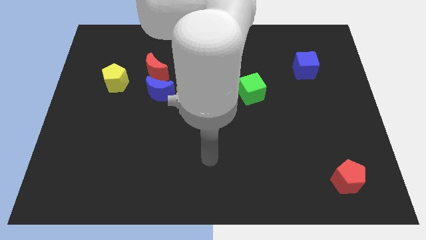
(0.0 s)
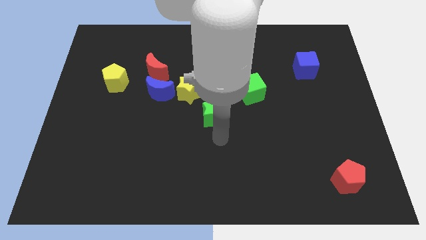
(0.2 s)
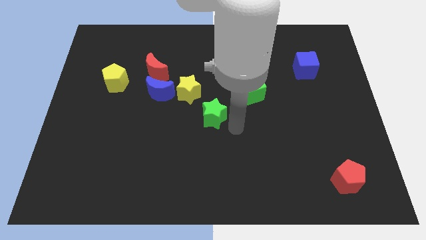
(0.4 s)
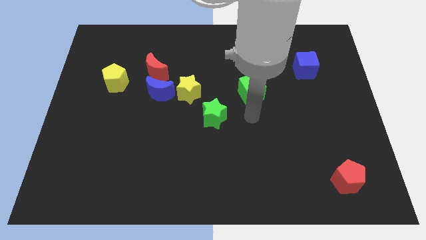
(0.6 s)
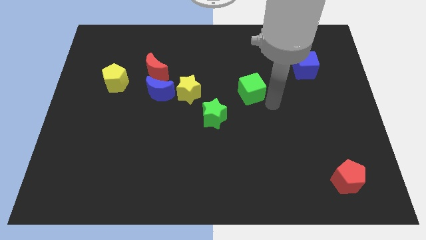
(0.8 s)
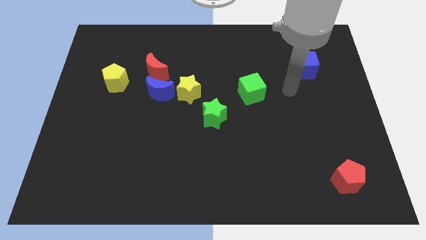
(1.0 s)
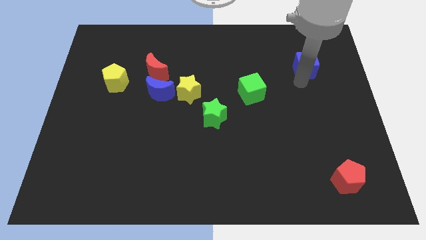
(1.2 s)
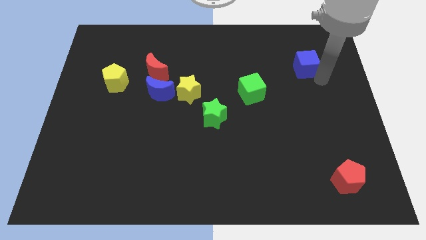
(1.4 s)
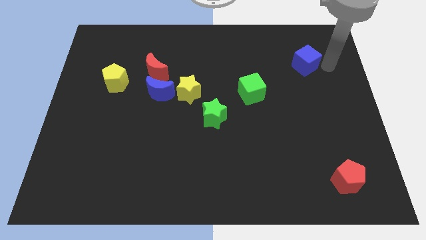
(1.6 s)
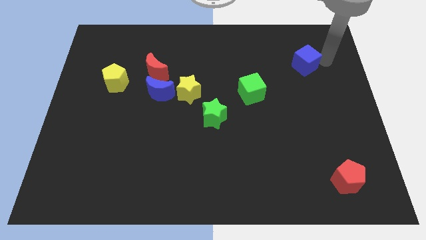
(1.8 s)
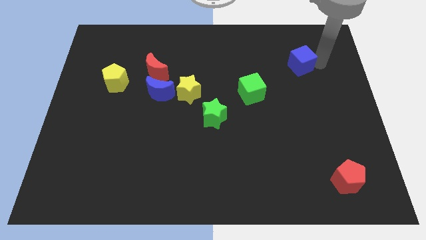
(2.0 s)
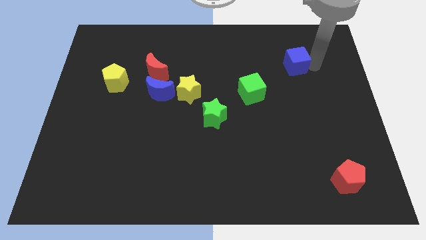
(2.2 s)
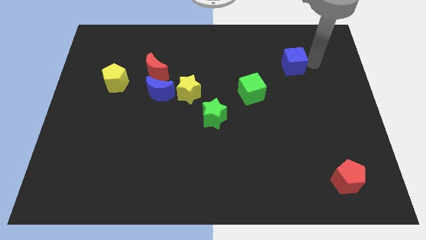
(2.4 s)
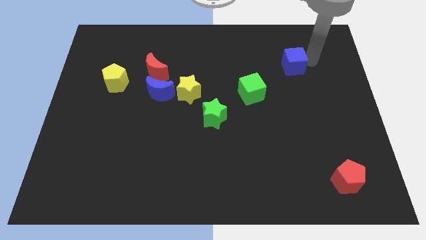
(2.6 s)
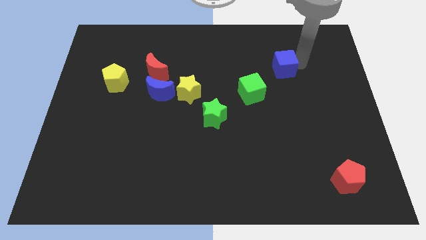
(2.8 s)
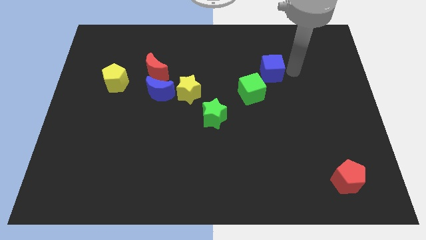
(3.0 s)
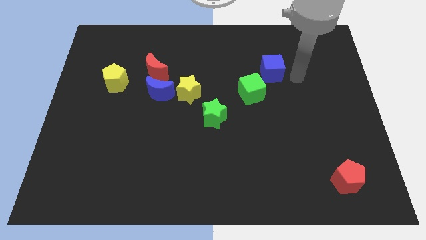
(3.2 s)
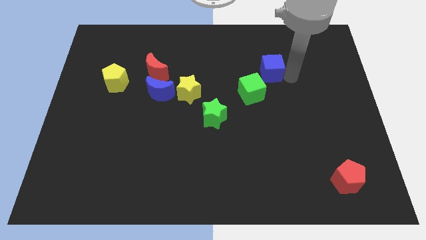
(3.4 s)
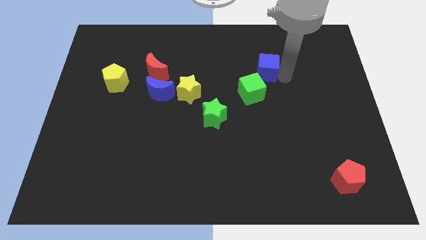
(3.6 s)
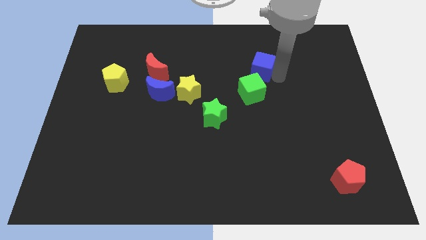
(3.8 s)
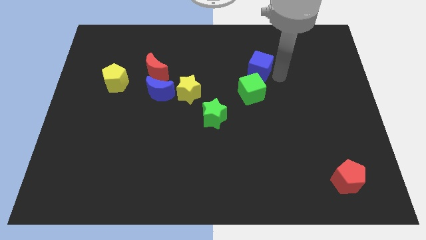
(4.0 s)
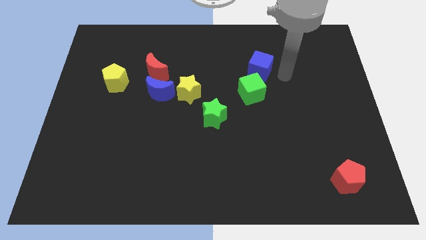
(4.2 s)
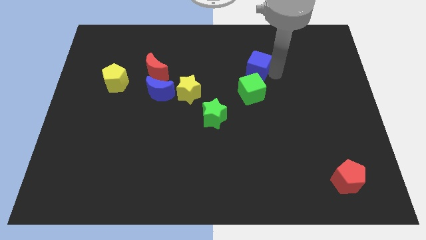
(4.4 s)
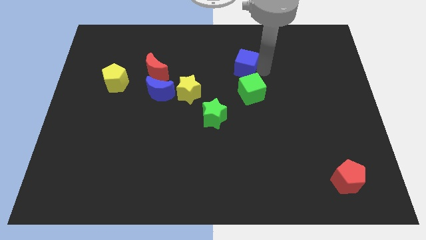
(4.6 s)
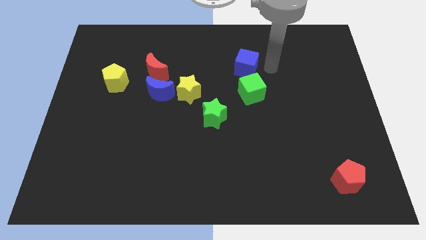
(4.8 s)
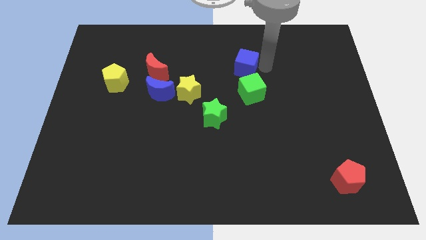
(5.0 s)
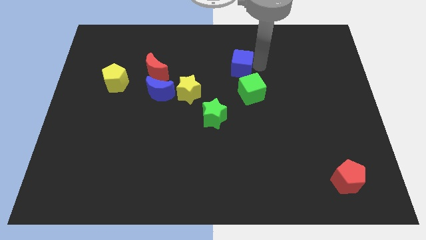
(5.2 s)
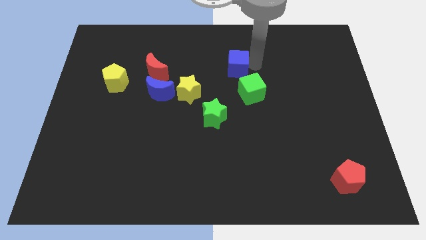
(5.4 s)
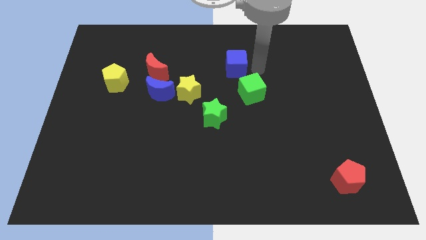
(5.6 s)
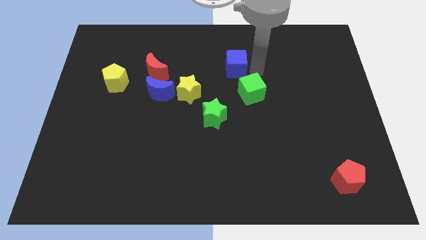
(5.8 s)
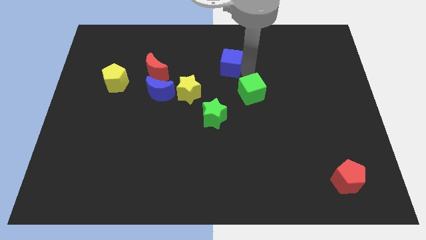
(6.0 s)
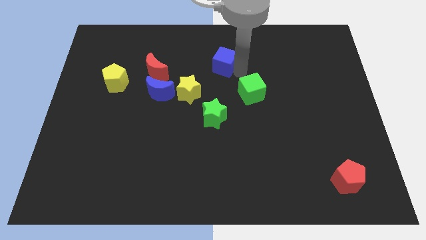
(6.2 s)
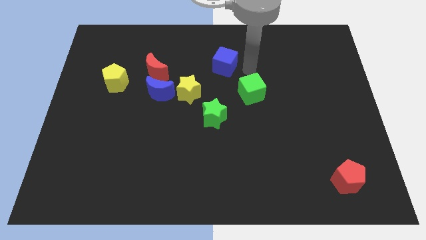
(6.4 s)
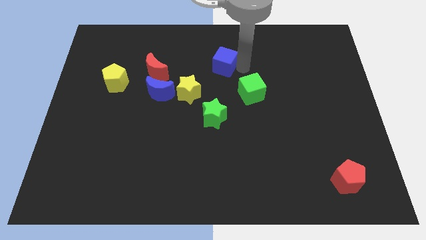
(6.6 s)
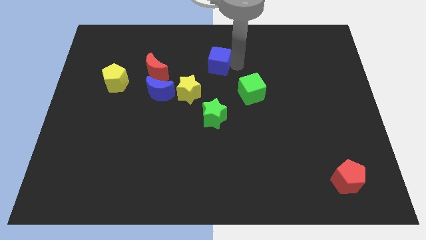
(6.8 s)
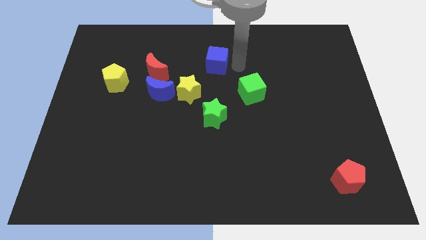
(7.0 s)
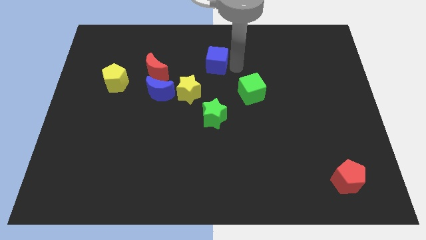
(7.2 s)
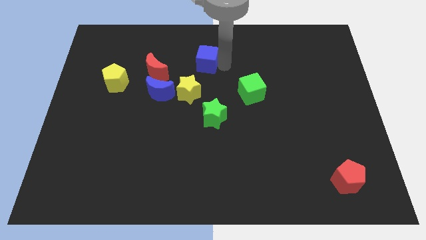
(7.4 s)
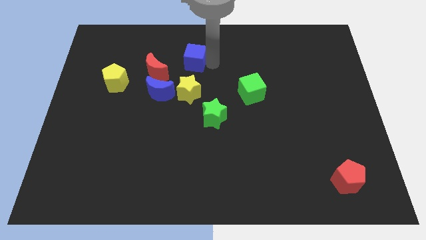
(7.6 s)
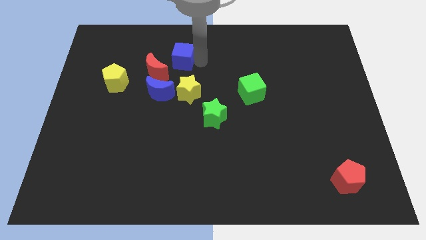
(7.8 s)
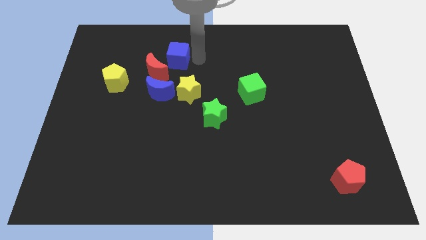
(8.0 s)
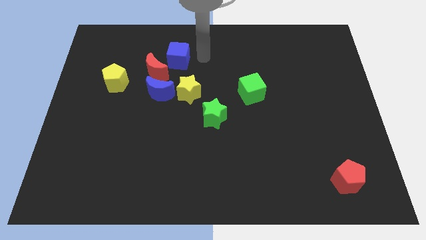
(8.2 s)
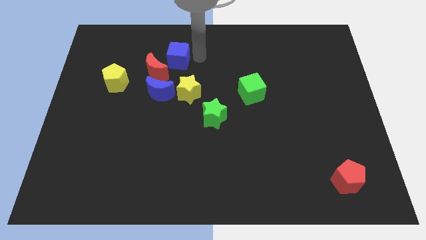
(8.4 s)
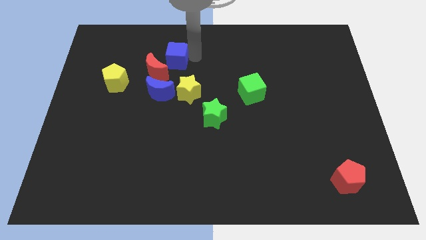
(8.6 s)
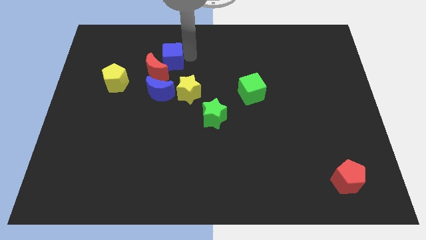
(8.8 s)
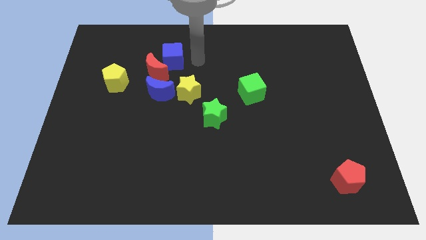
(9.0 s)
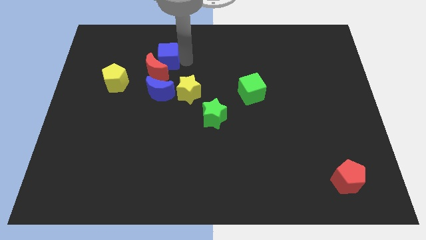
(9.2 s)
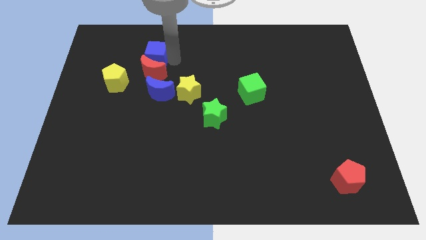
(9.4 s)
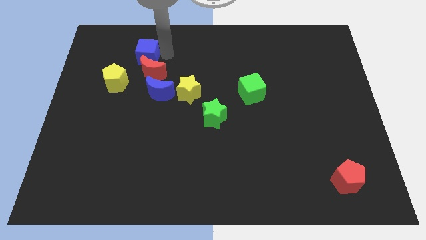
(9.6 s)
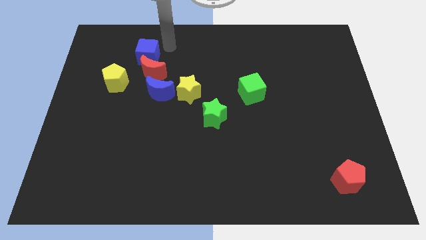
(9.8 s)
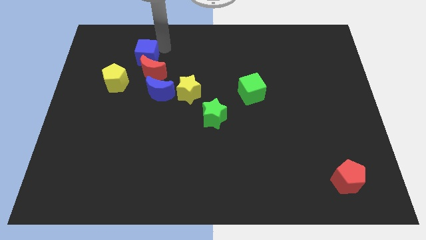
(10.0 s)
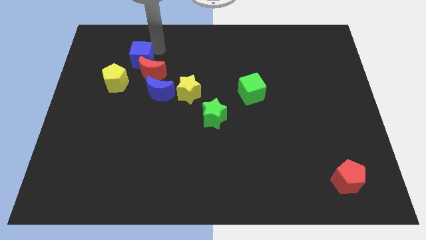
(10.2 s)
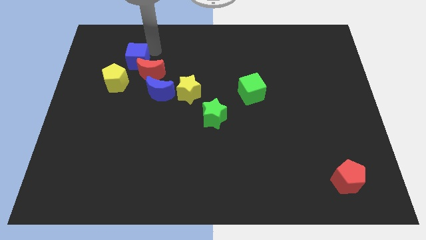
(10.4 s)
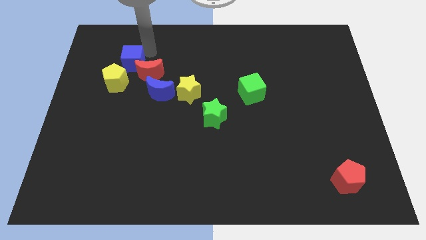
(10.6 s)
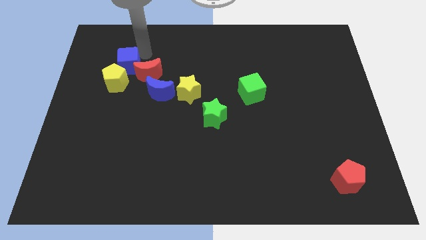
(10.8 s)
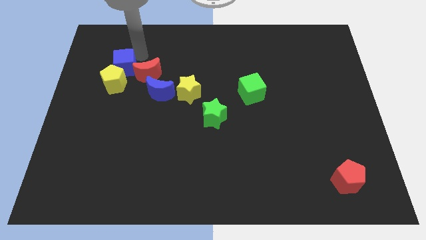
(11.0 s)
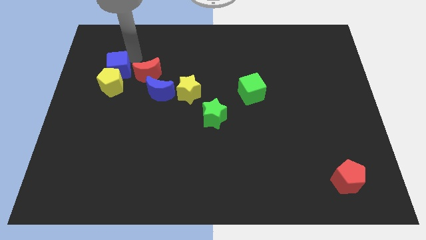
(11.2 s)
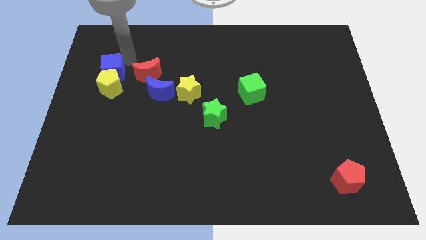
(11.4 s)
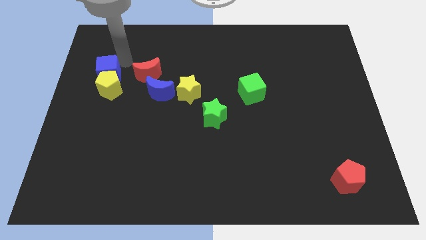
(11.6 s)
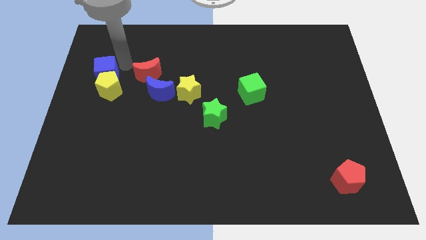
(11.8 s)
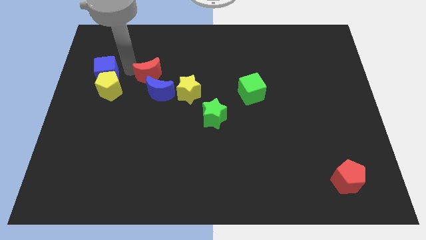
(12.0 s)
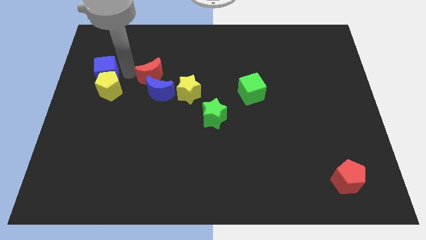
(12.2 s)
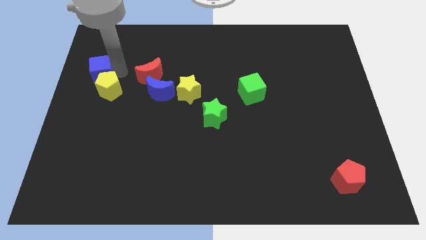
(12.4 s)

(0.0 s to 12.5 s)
put the blue cube to the center left

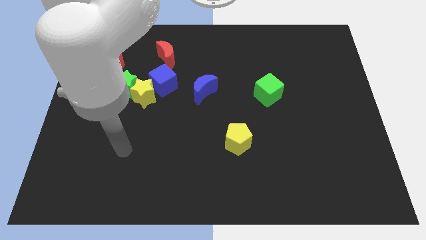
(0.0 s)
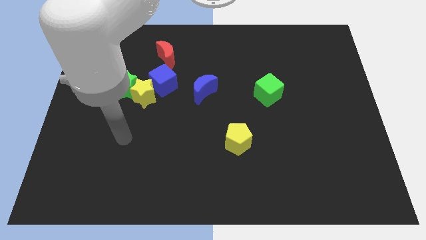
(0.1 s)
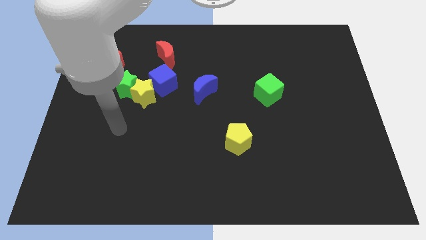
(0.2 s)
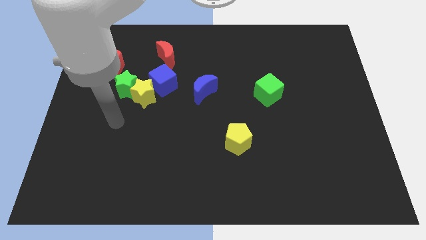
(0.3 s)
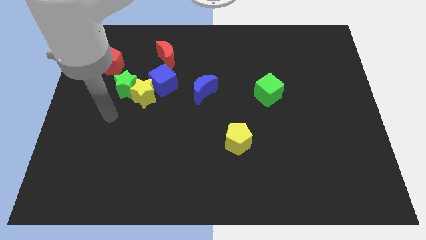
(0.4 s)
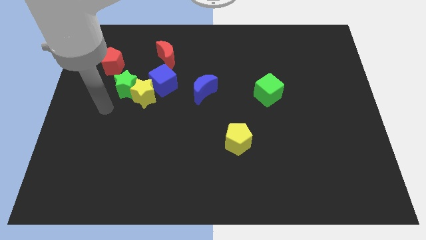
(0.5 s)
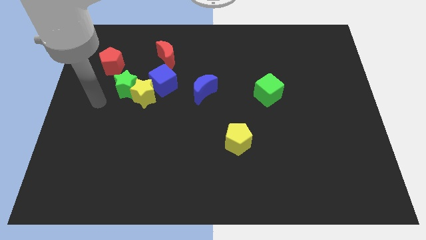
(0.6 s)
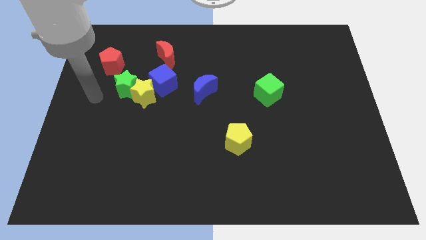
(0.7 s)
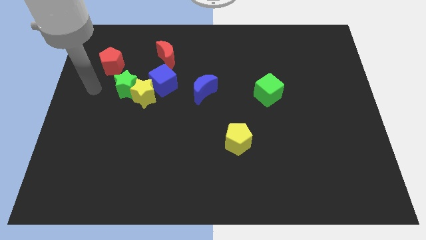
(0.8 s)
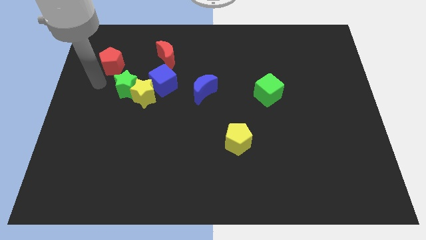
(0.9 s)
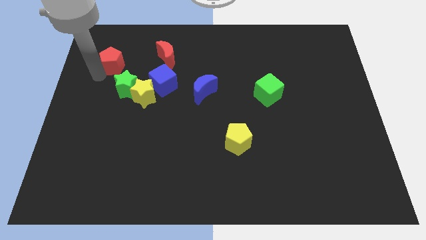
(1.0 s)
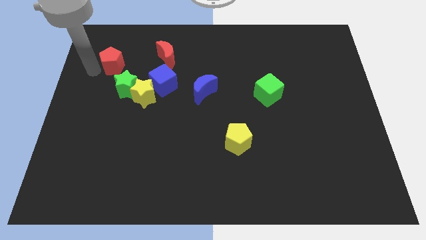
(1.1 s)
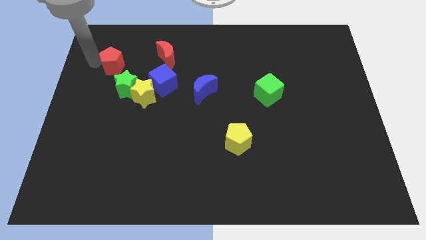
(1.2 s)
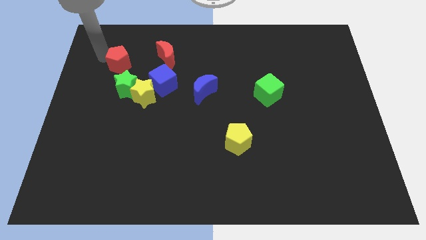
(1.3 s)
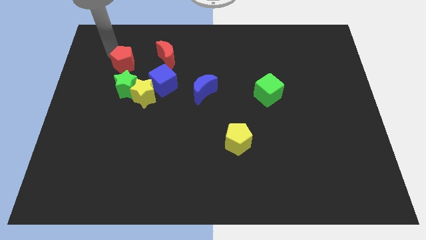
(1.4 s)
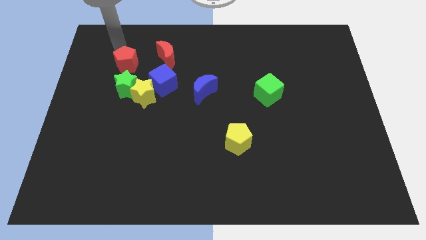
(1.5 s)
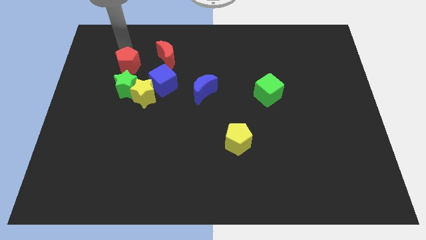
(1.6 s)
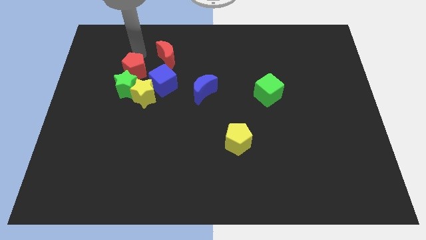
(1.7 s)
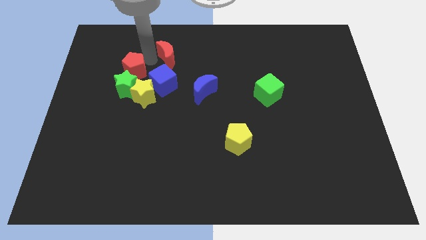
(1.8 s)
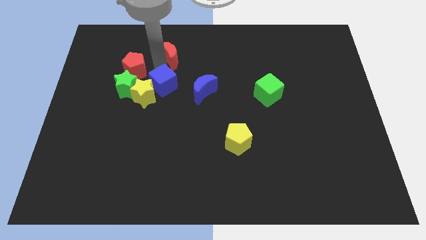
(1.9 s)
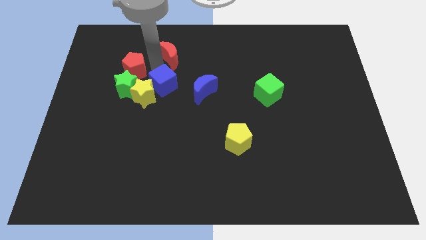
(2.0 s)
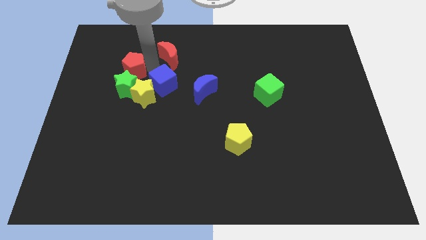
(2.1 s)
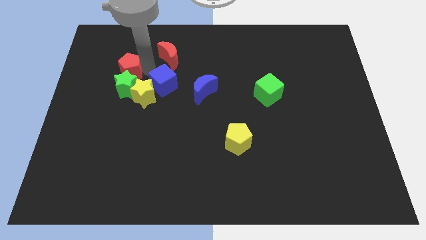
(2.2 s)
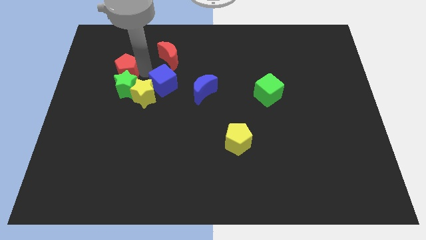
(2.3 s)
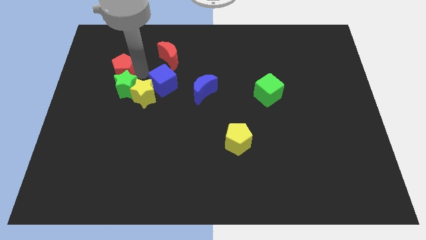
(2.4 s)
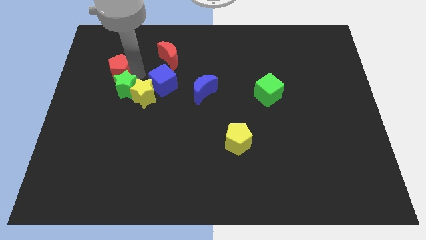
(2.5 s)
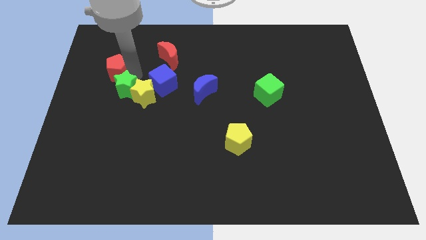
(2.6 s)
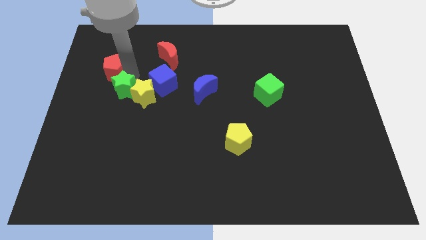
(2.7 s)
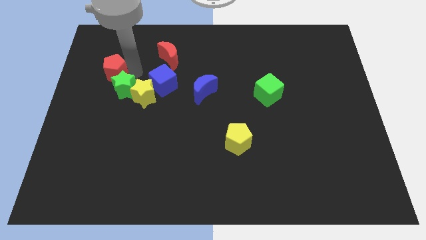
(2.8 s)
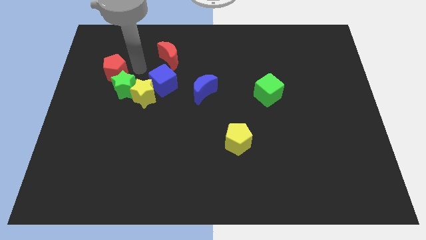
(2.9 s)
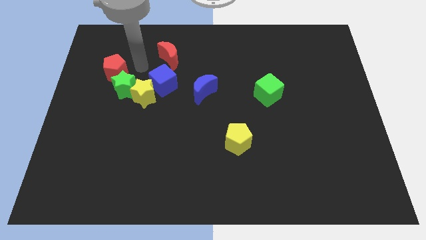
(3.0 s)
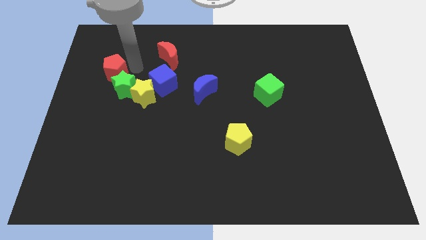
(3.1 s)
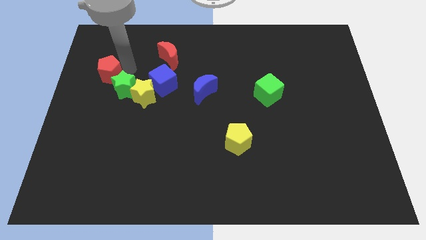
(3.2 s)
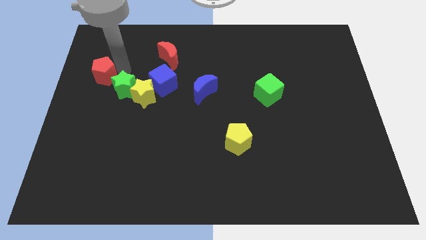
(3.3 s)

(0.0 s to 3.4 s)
move the red pentagon to the left side of the board
